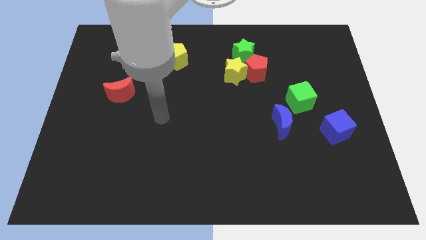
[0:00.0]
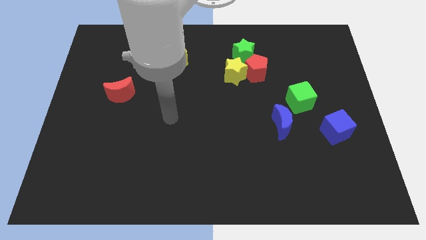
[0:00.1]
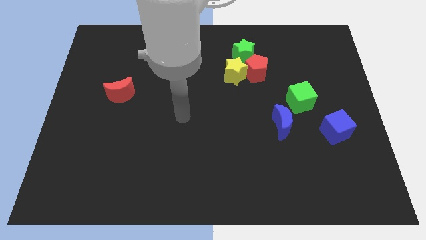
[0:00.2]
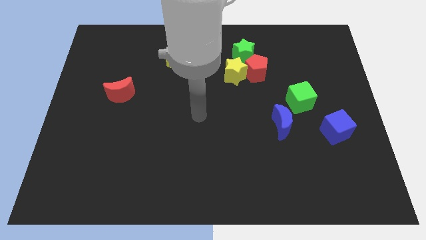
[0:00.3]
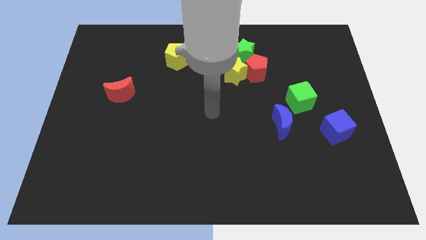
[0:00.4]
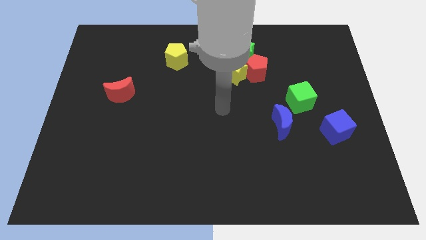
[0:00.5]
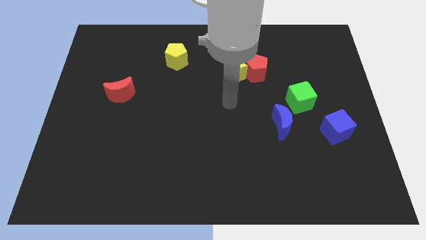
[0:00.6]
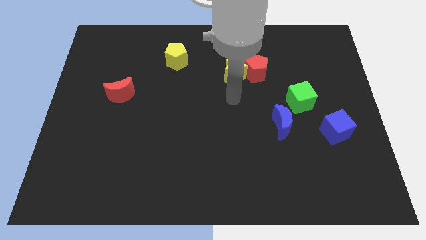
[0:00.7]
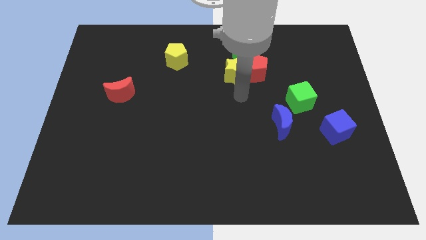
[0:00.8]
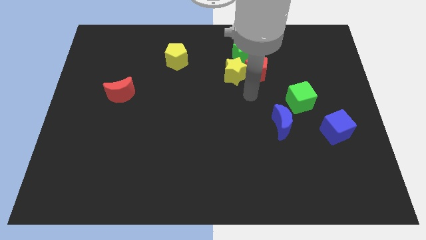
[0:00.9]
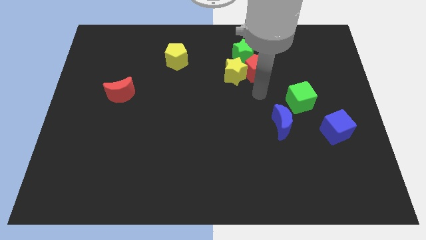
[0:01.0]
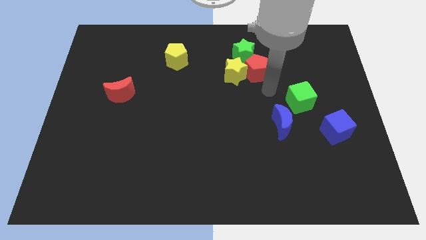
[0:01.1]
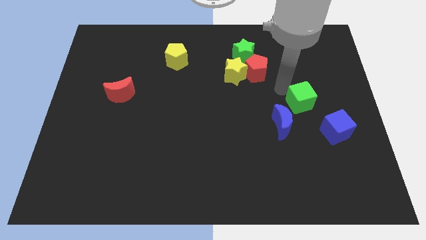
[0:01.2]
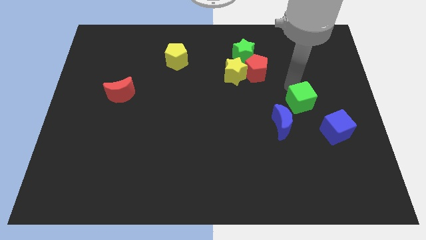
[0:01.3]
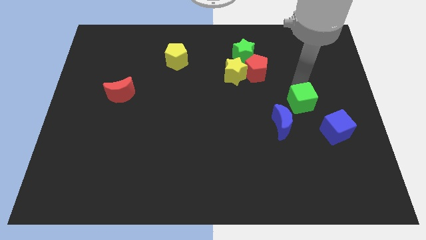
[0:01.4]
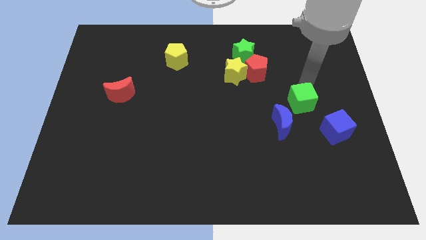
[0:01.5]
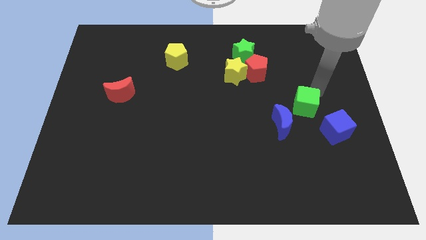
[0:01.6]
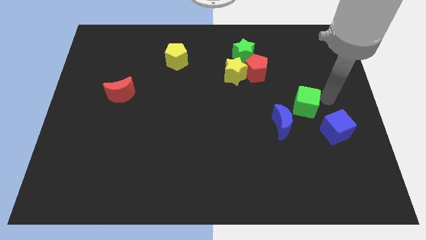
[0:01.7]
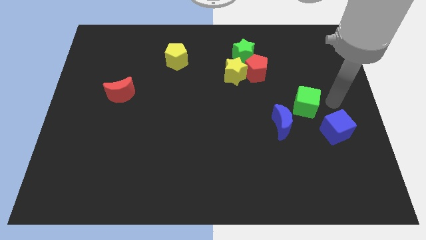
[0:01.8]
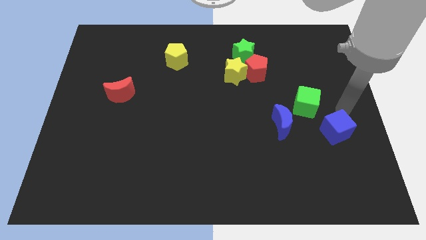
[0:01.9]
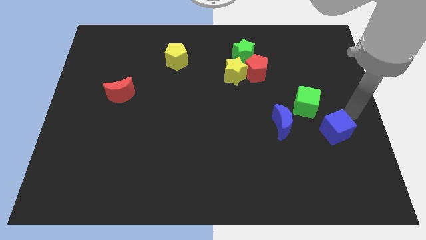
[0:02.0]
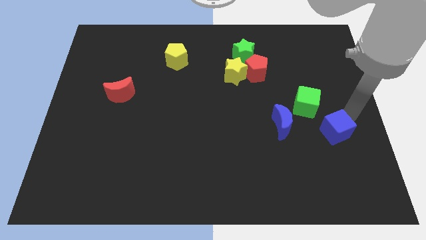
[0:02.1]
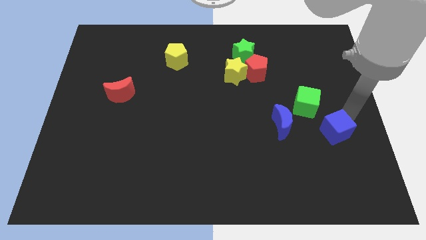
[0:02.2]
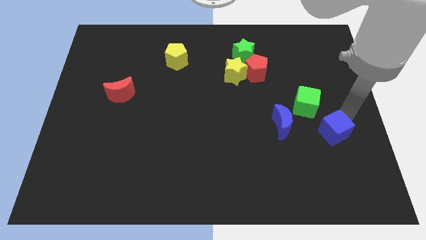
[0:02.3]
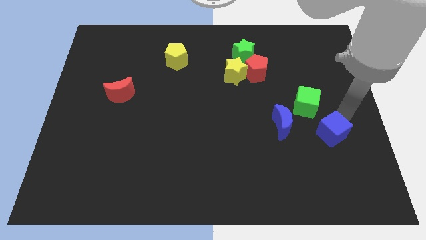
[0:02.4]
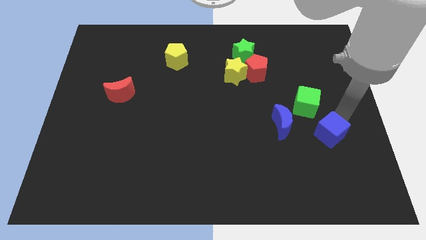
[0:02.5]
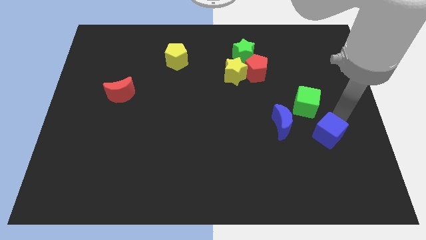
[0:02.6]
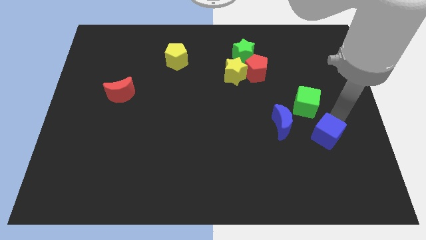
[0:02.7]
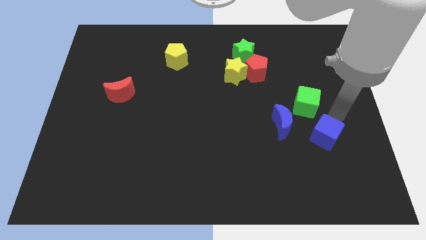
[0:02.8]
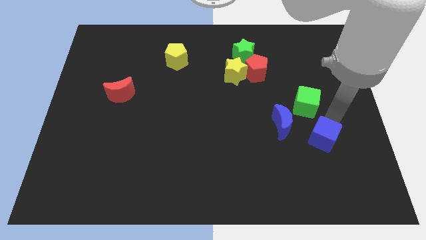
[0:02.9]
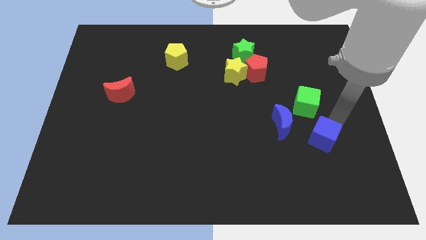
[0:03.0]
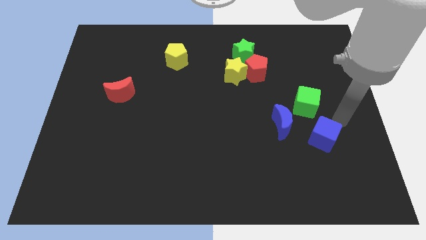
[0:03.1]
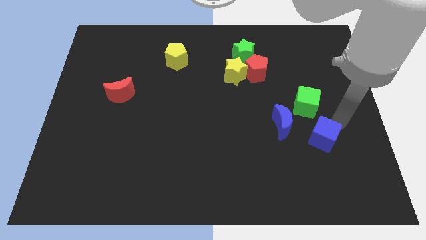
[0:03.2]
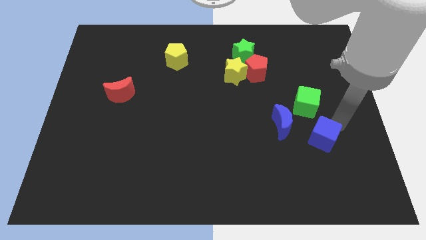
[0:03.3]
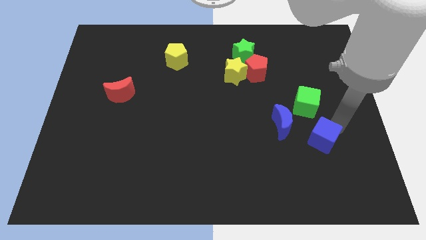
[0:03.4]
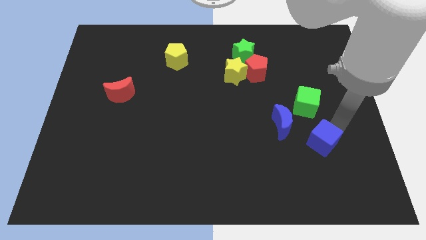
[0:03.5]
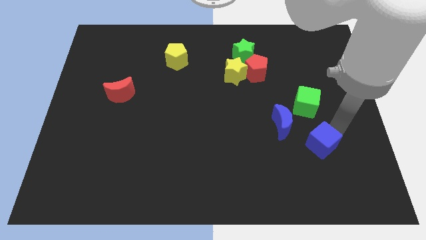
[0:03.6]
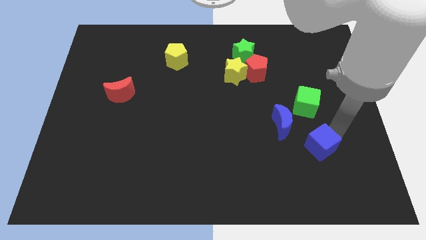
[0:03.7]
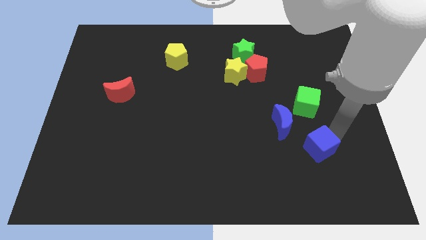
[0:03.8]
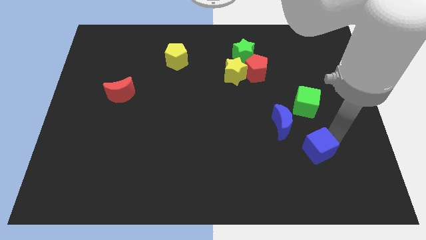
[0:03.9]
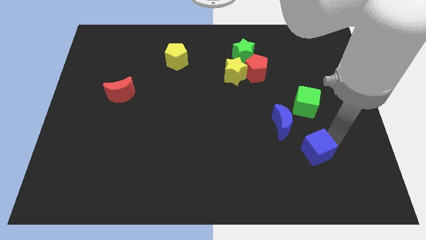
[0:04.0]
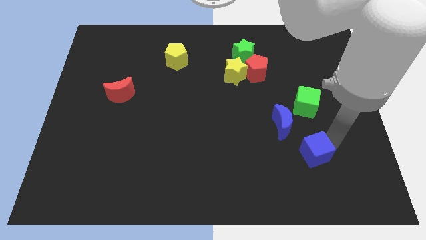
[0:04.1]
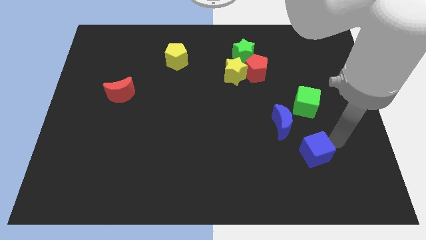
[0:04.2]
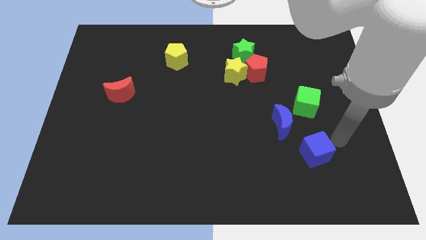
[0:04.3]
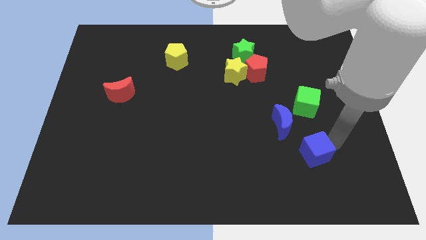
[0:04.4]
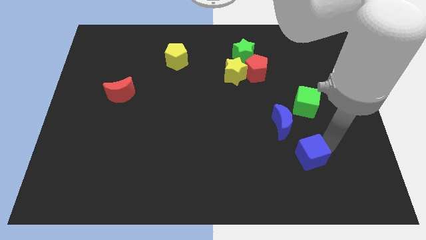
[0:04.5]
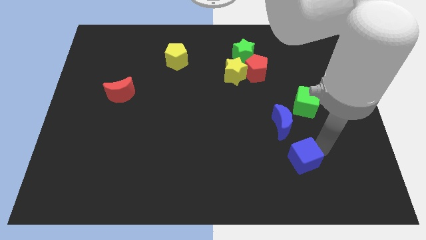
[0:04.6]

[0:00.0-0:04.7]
push the blue cube to the bottom of the blue moon

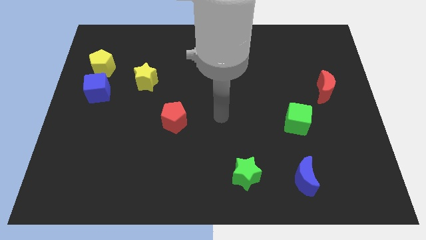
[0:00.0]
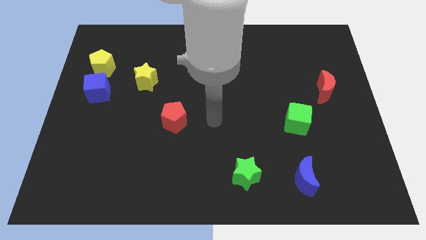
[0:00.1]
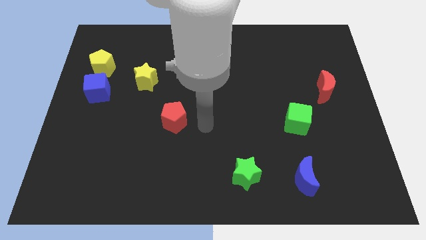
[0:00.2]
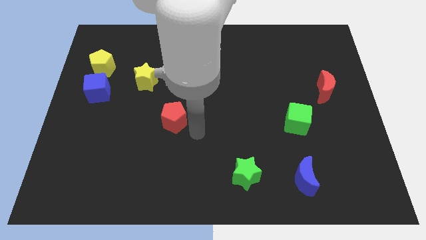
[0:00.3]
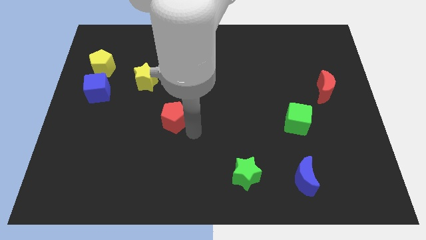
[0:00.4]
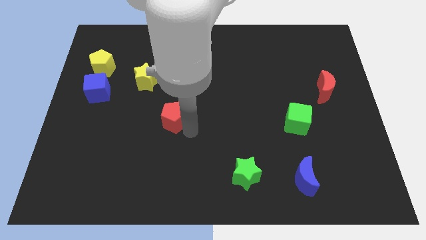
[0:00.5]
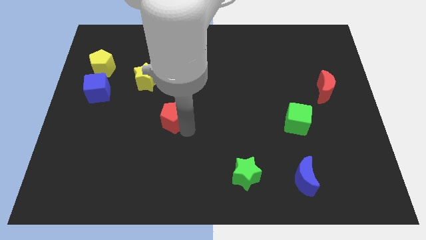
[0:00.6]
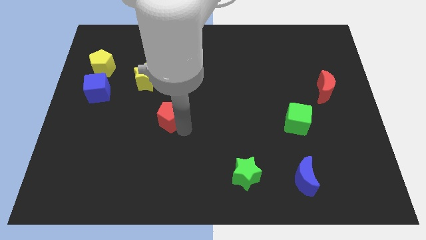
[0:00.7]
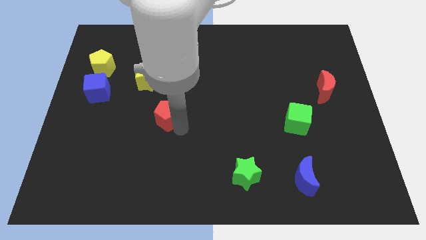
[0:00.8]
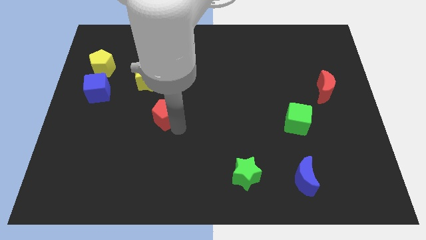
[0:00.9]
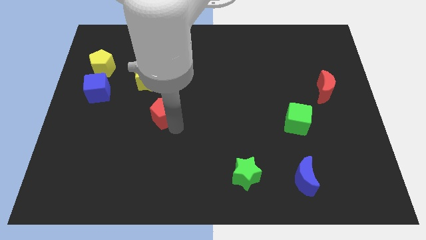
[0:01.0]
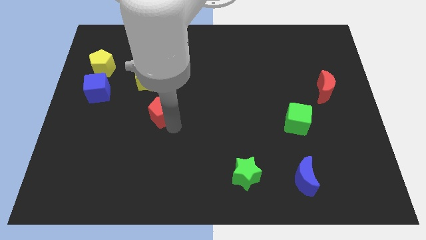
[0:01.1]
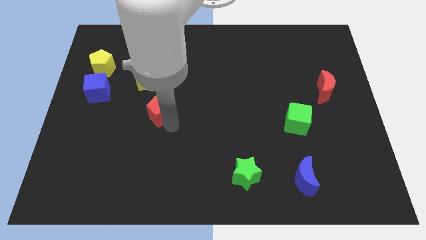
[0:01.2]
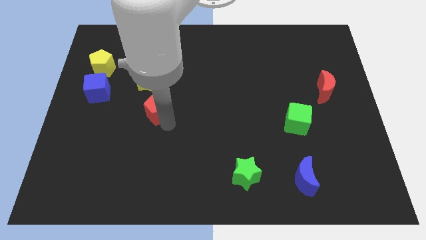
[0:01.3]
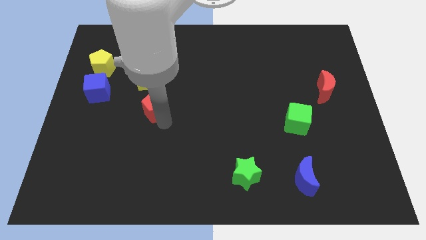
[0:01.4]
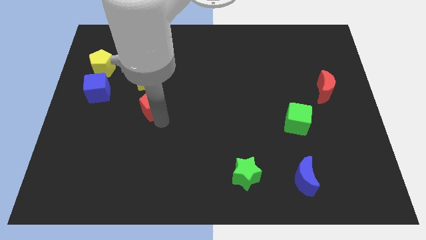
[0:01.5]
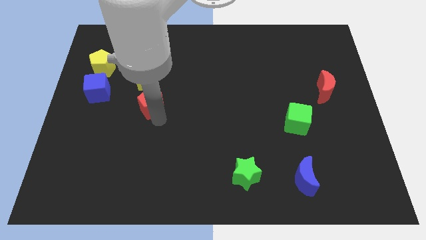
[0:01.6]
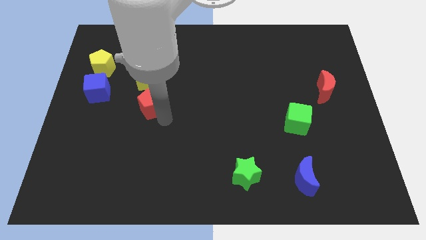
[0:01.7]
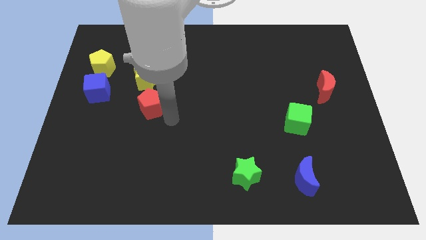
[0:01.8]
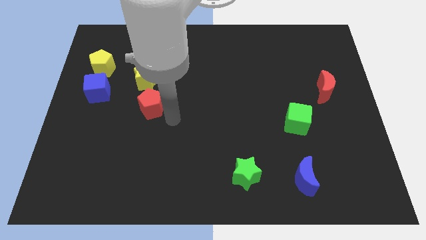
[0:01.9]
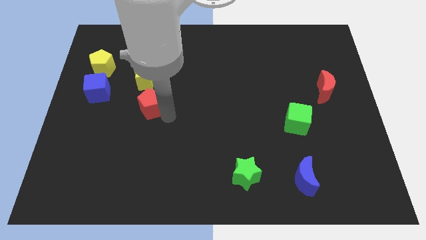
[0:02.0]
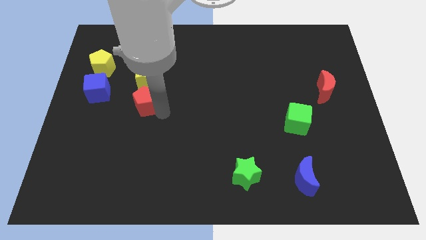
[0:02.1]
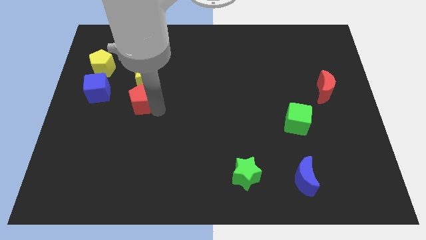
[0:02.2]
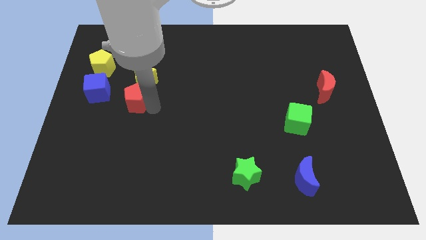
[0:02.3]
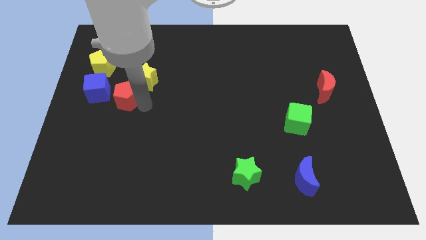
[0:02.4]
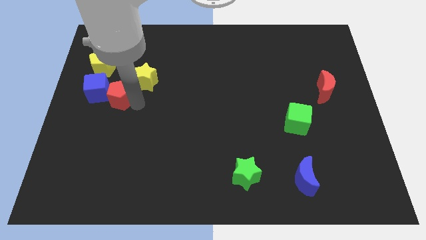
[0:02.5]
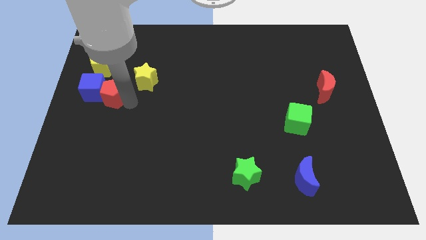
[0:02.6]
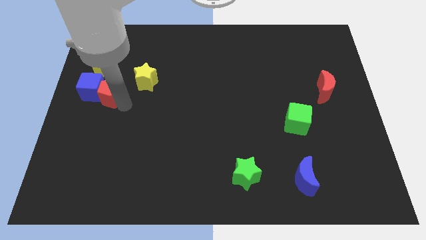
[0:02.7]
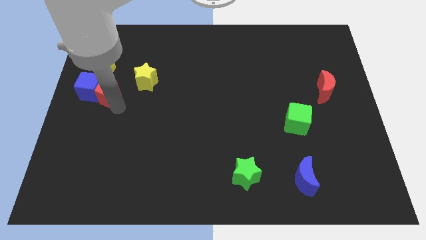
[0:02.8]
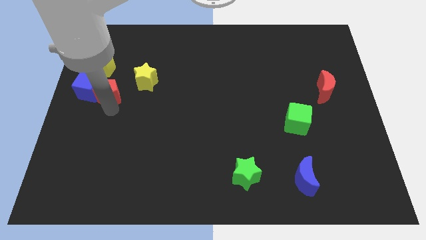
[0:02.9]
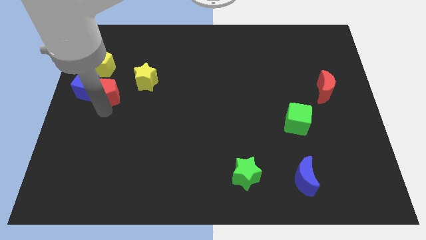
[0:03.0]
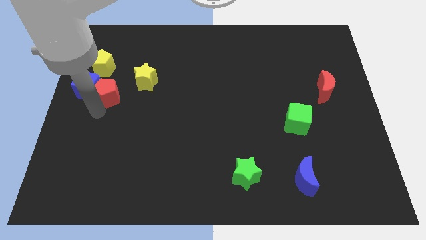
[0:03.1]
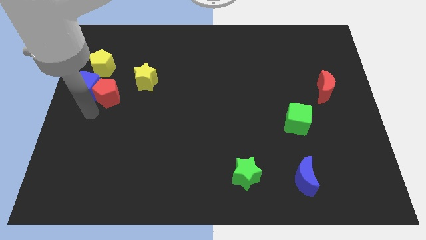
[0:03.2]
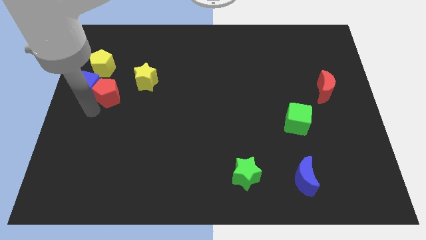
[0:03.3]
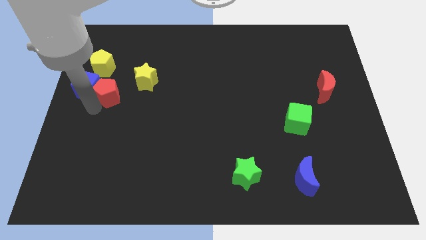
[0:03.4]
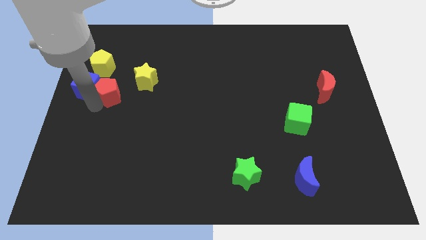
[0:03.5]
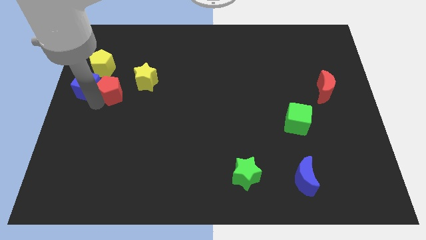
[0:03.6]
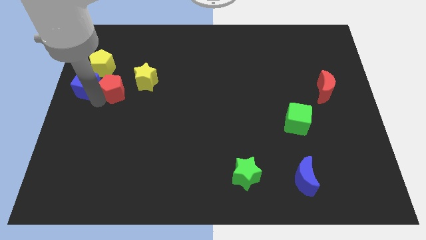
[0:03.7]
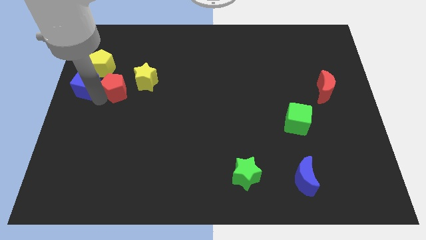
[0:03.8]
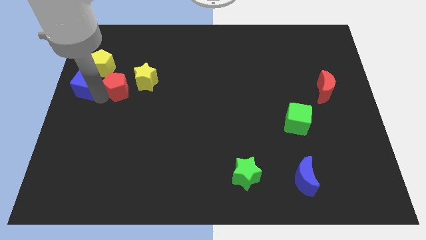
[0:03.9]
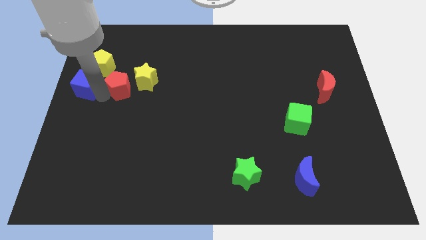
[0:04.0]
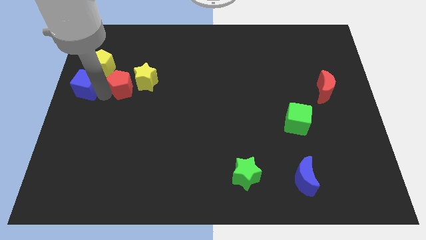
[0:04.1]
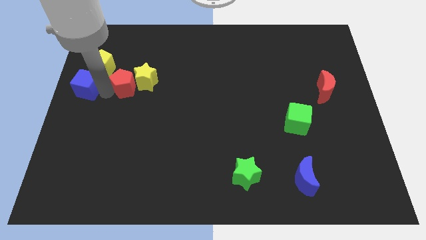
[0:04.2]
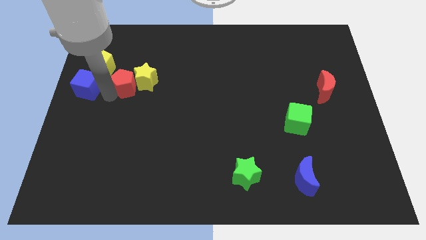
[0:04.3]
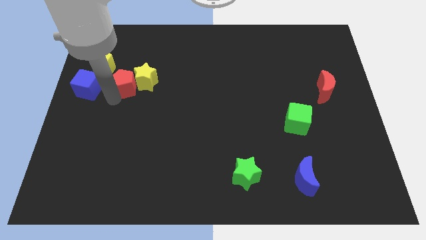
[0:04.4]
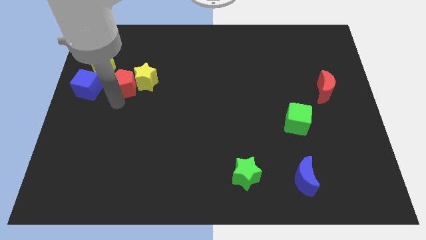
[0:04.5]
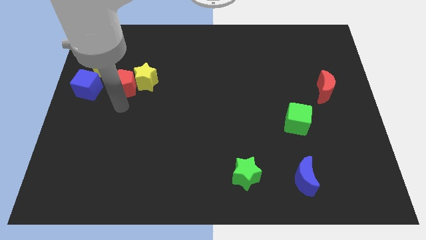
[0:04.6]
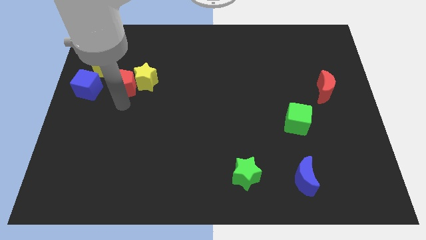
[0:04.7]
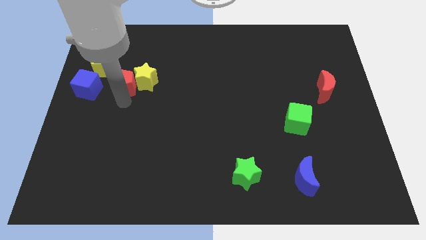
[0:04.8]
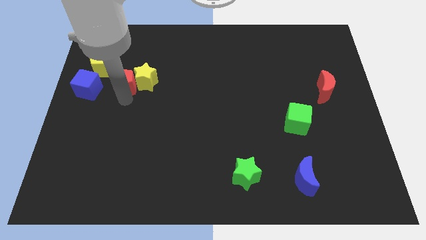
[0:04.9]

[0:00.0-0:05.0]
put the red pentagon to the top left of the yellow star
